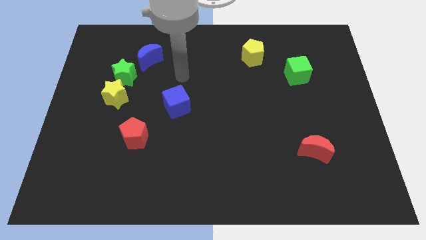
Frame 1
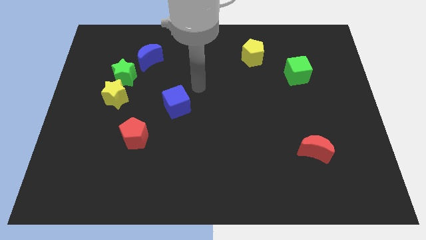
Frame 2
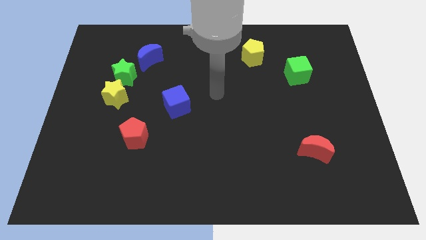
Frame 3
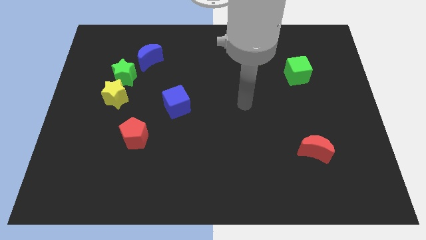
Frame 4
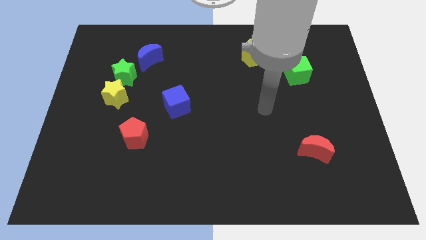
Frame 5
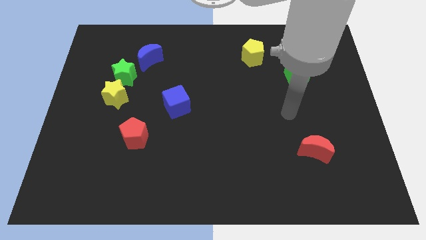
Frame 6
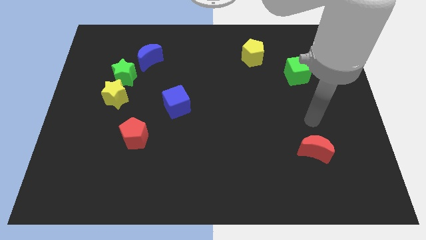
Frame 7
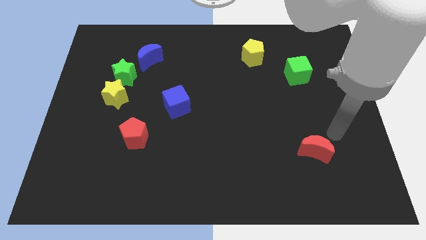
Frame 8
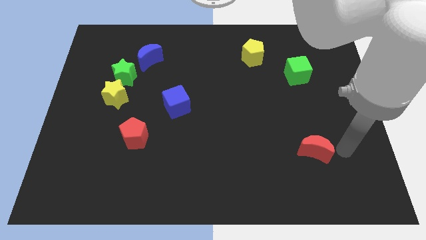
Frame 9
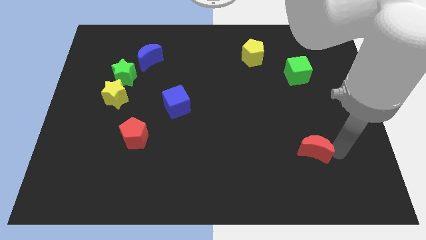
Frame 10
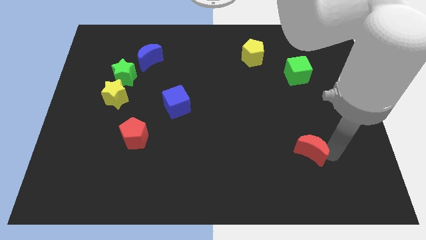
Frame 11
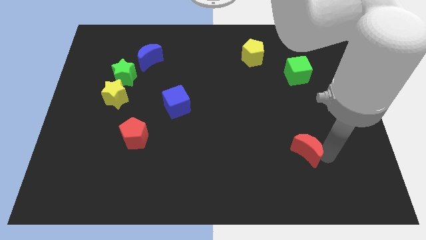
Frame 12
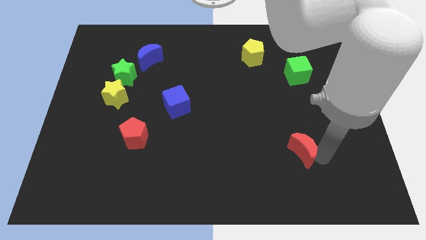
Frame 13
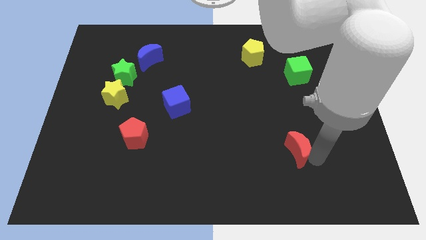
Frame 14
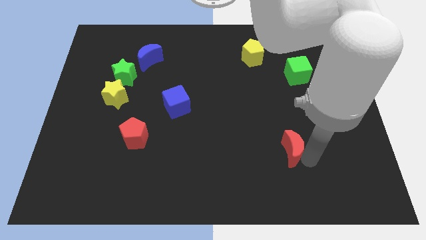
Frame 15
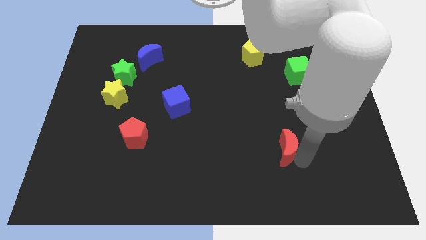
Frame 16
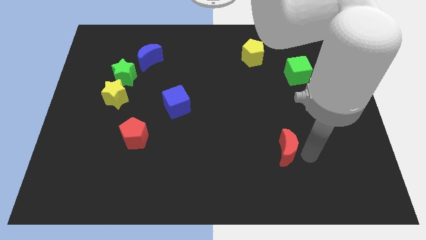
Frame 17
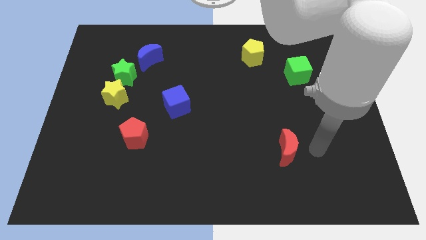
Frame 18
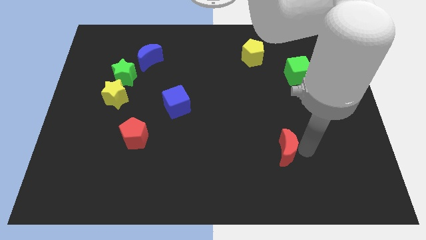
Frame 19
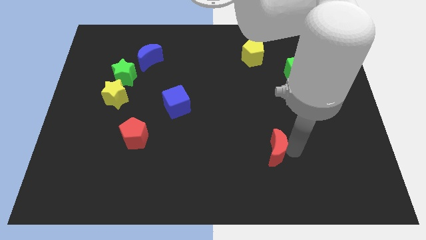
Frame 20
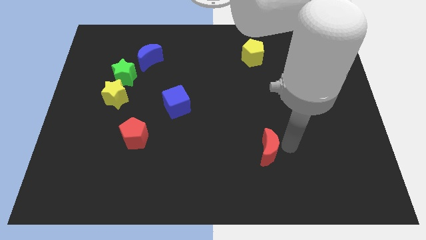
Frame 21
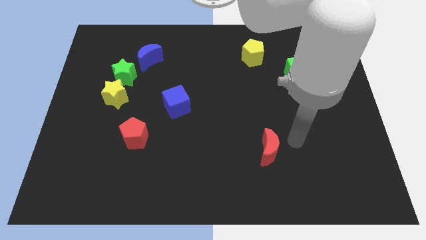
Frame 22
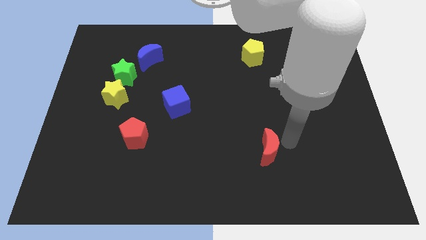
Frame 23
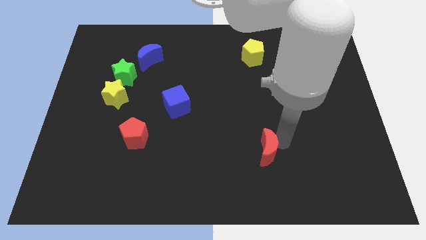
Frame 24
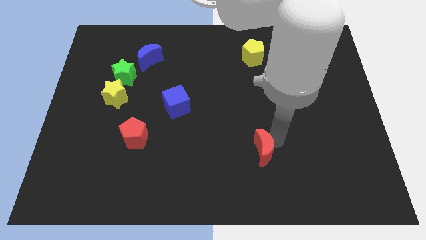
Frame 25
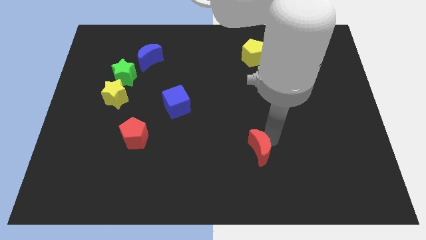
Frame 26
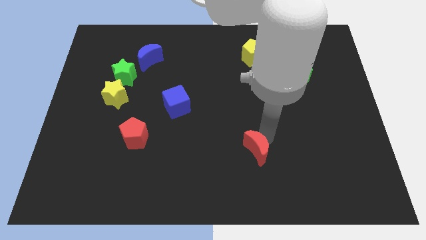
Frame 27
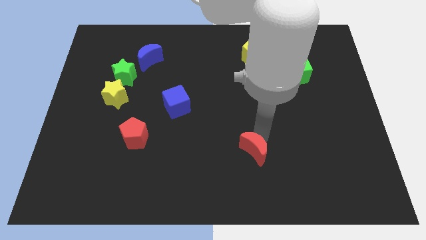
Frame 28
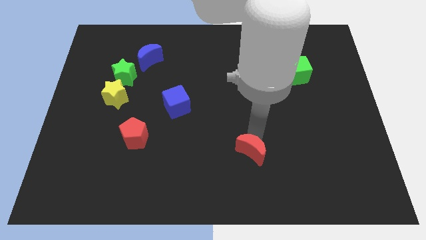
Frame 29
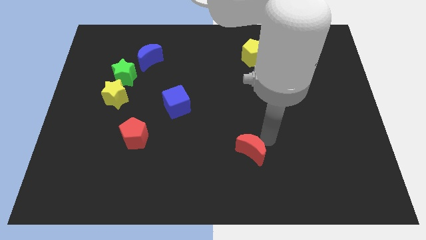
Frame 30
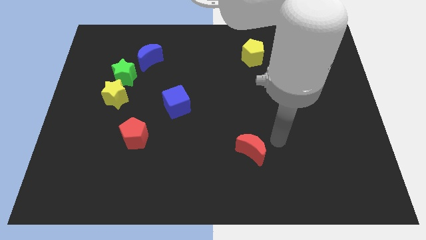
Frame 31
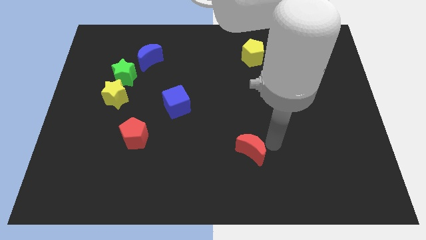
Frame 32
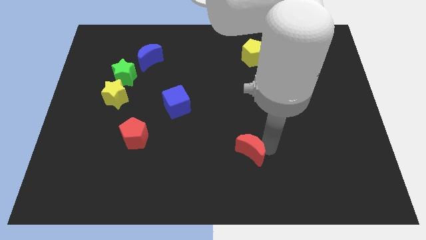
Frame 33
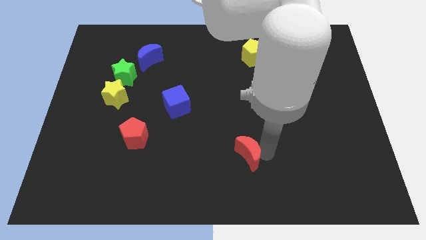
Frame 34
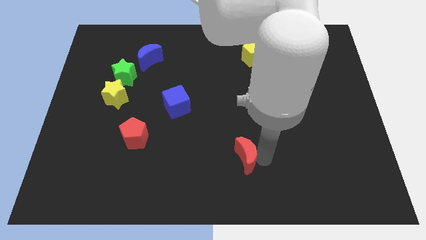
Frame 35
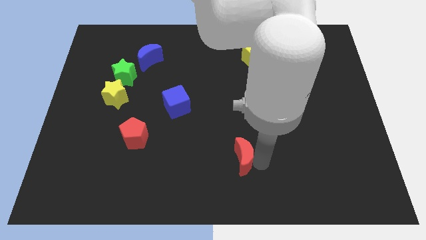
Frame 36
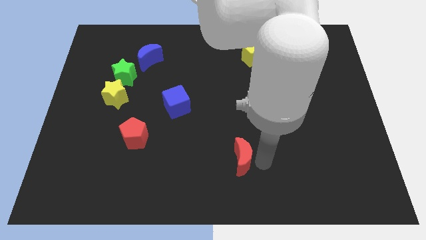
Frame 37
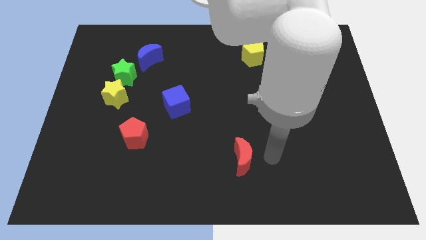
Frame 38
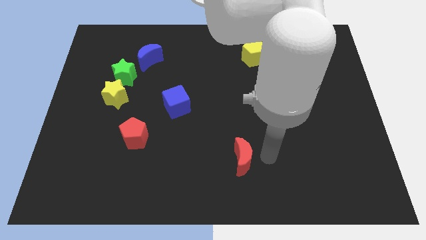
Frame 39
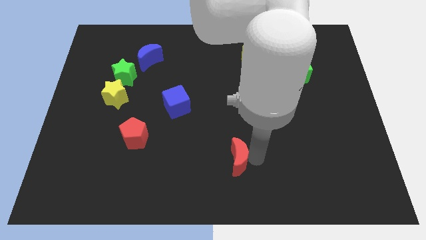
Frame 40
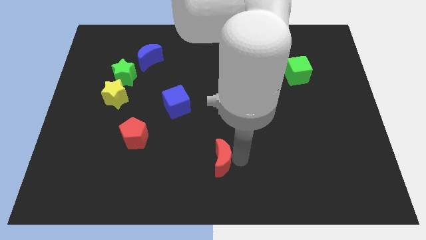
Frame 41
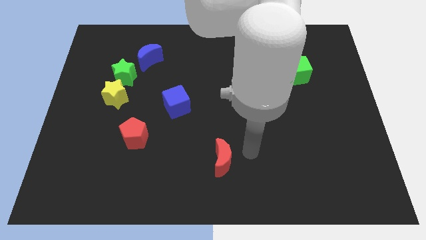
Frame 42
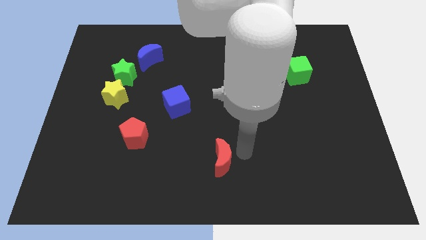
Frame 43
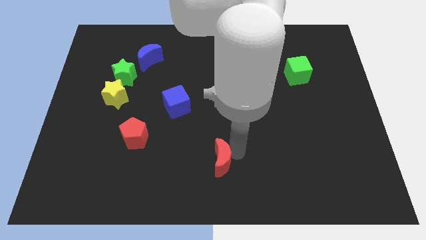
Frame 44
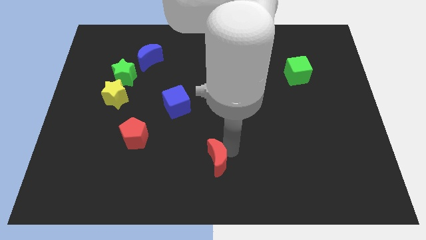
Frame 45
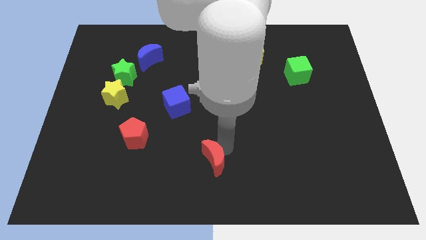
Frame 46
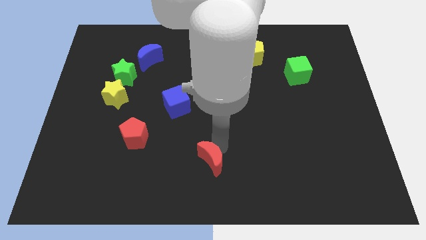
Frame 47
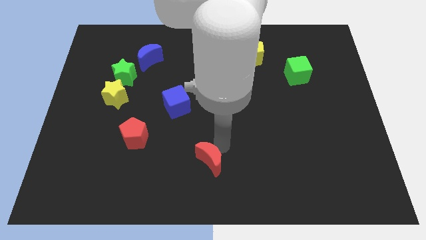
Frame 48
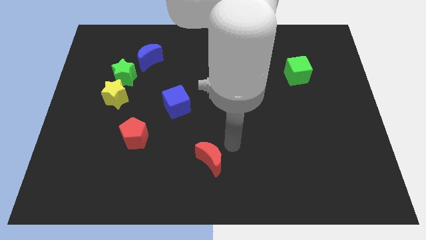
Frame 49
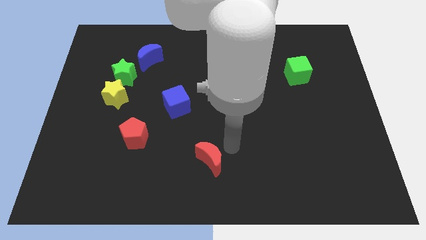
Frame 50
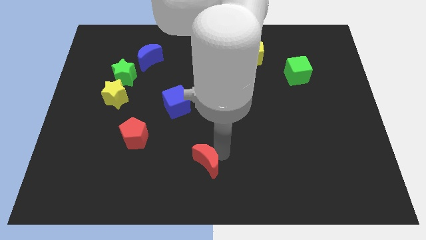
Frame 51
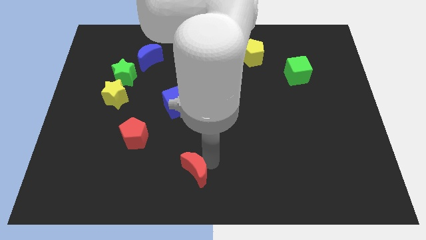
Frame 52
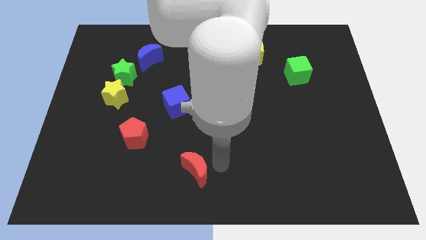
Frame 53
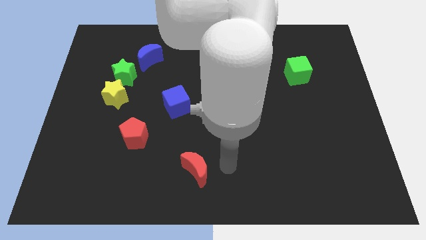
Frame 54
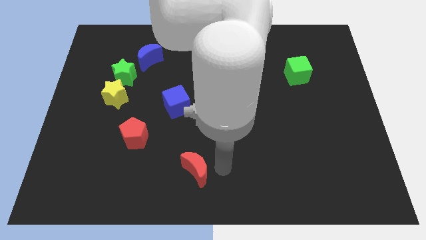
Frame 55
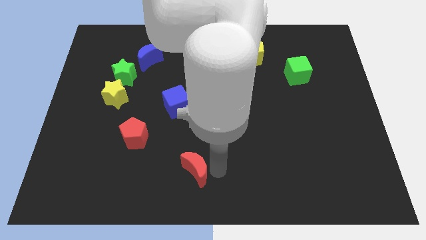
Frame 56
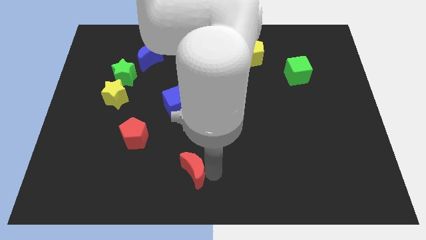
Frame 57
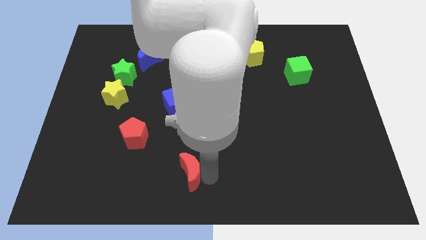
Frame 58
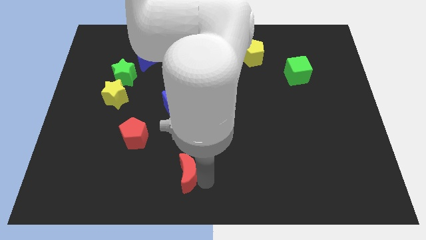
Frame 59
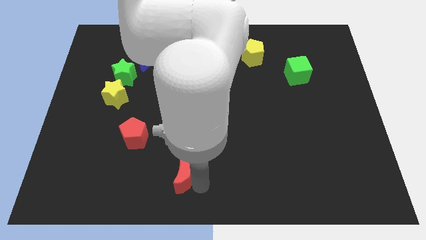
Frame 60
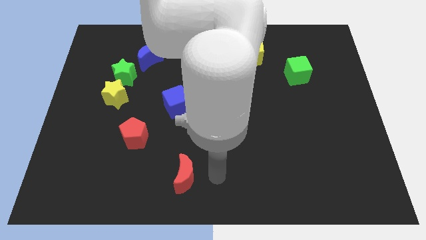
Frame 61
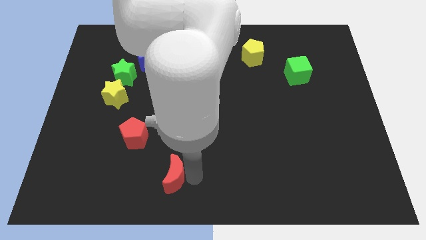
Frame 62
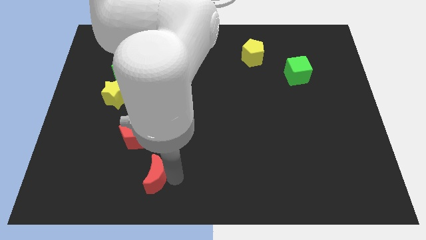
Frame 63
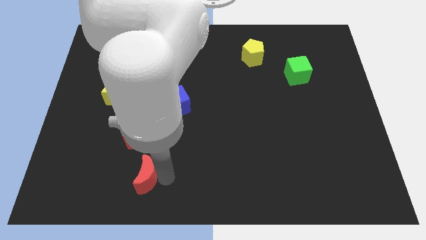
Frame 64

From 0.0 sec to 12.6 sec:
slide the red moon to the bottom of the red pentagon
